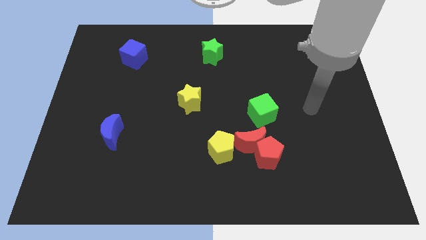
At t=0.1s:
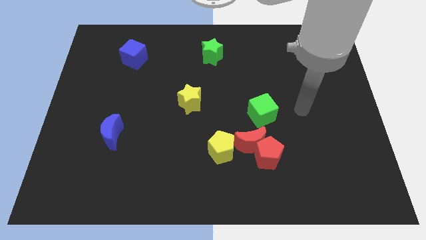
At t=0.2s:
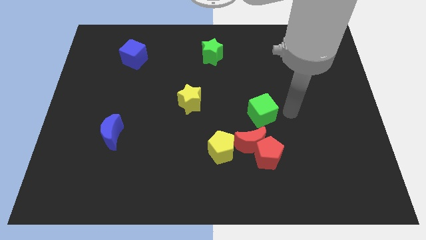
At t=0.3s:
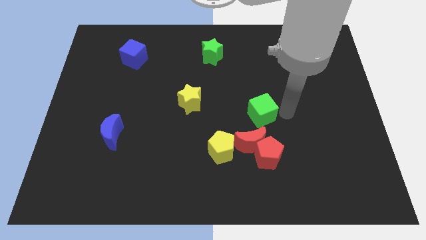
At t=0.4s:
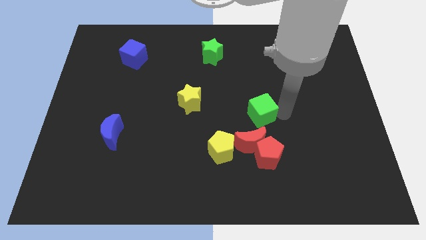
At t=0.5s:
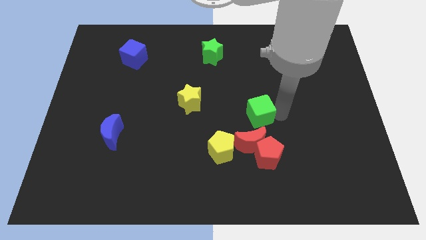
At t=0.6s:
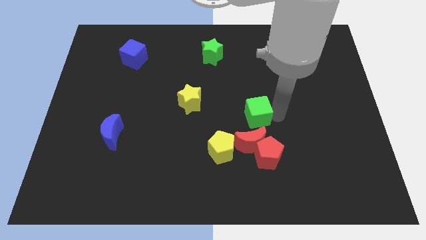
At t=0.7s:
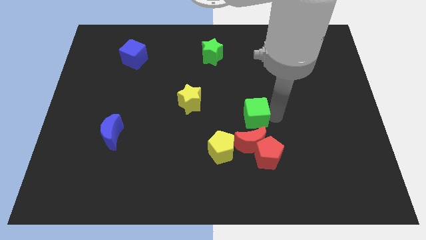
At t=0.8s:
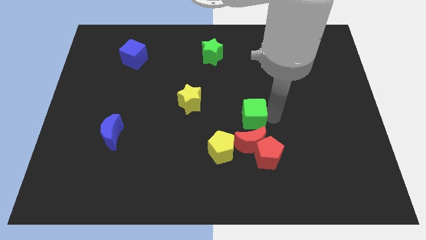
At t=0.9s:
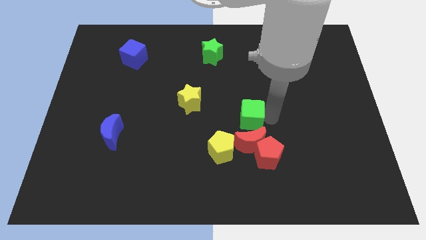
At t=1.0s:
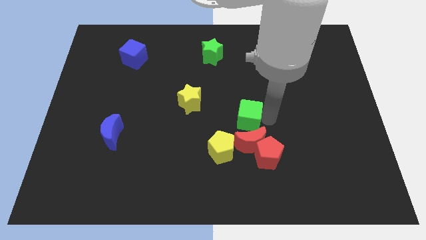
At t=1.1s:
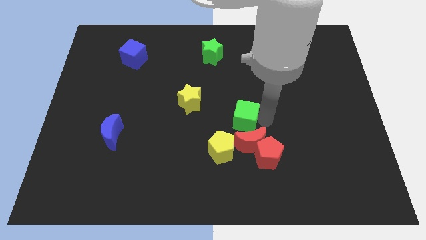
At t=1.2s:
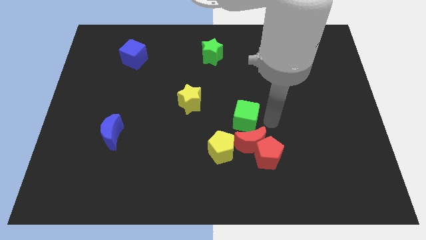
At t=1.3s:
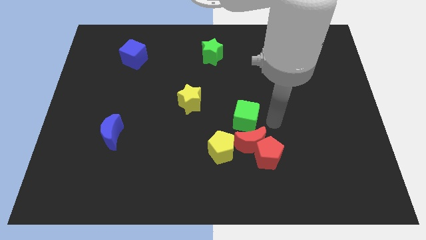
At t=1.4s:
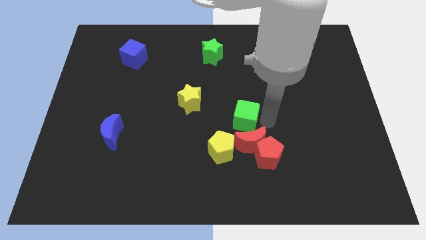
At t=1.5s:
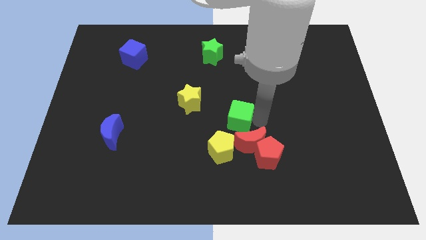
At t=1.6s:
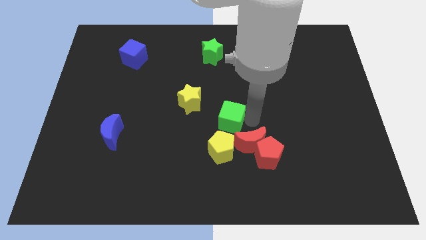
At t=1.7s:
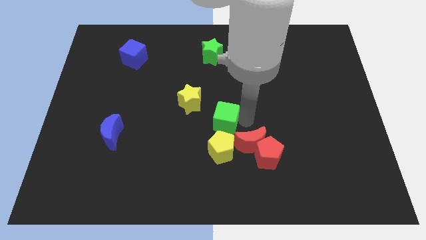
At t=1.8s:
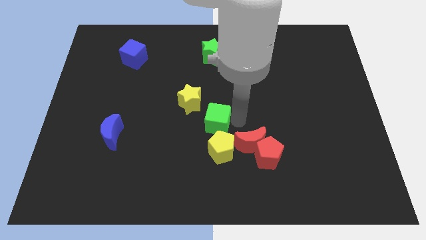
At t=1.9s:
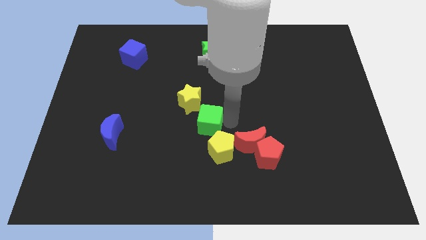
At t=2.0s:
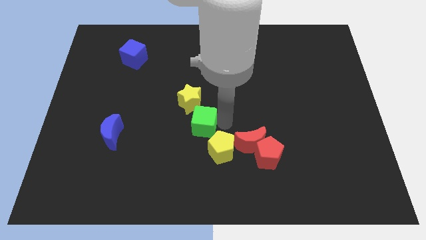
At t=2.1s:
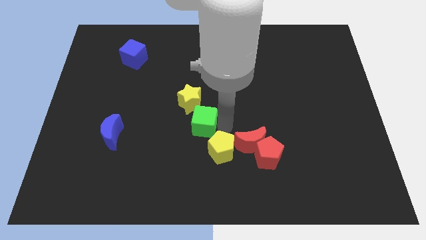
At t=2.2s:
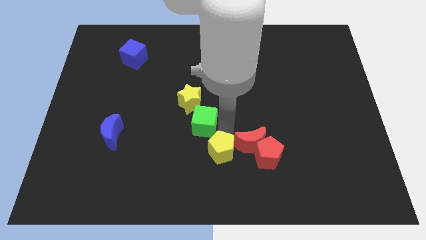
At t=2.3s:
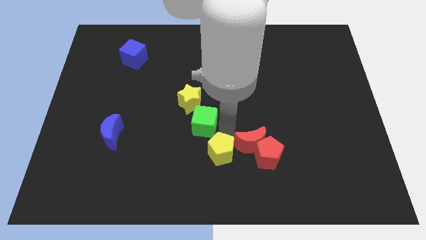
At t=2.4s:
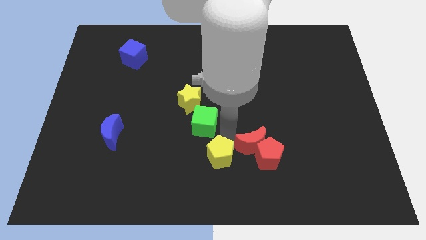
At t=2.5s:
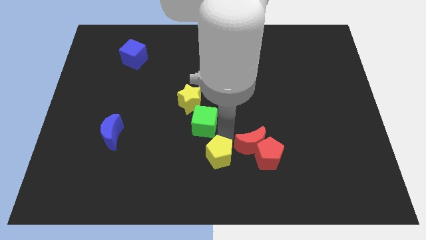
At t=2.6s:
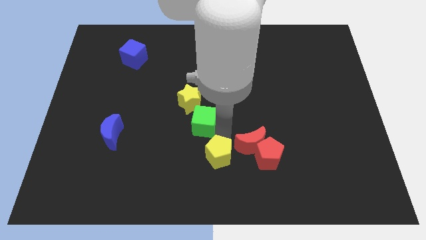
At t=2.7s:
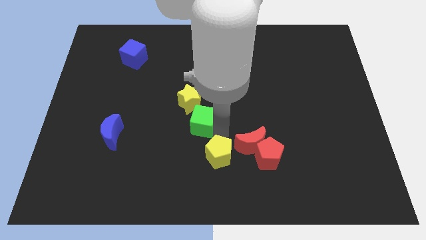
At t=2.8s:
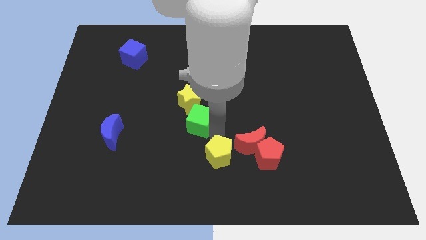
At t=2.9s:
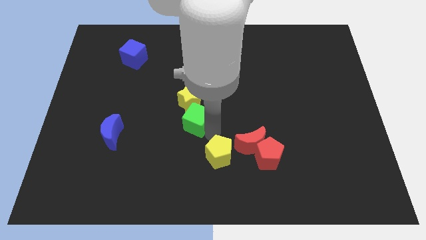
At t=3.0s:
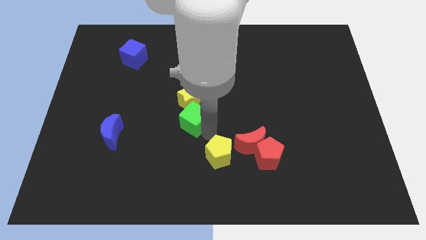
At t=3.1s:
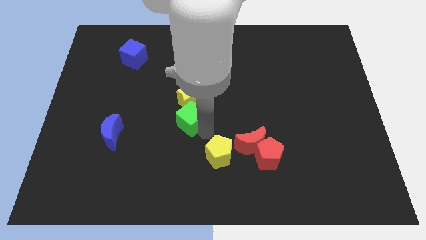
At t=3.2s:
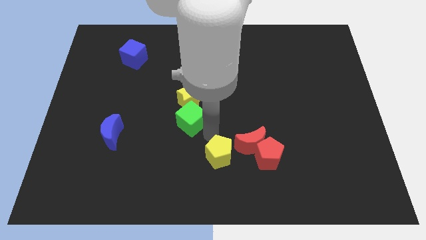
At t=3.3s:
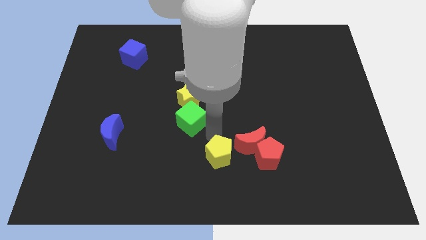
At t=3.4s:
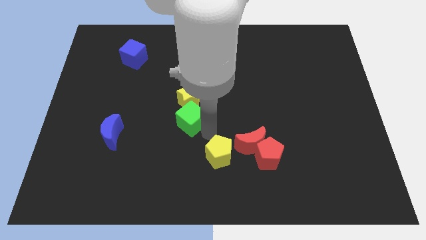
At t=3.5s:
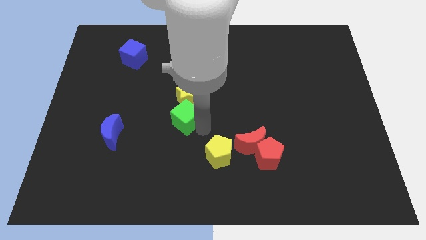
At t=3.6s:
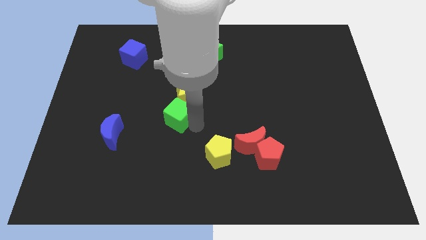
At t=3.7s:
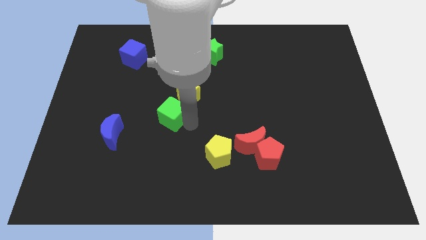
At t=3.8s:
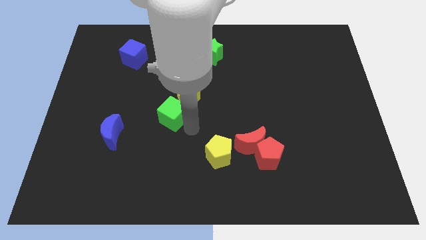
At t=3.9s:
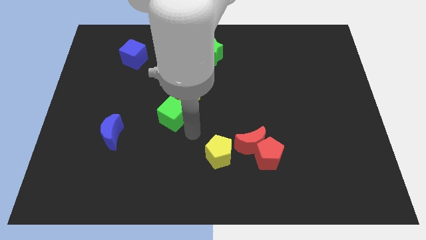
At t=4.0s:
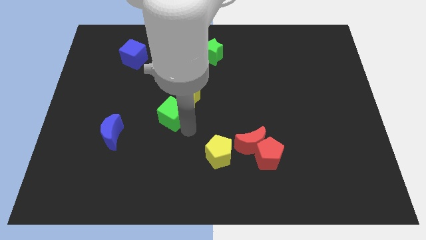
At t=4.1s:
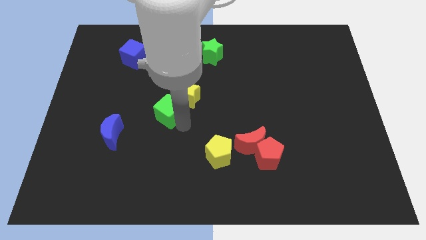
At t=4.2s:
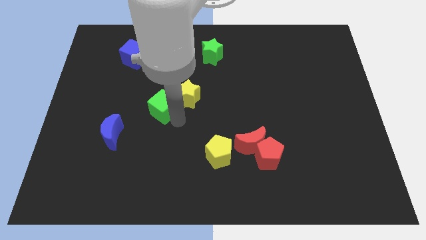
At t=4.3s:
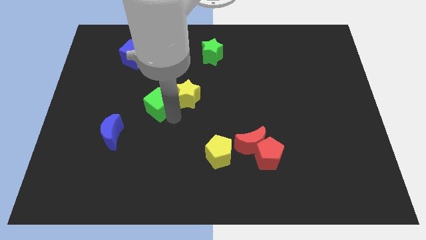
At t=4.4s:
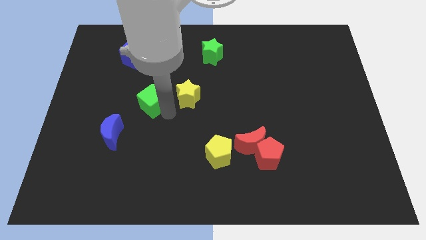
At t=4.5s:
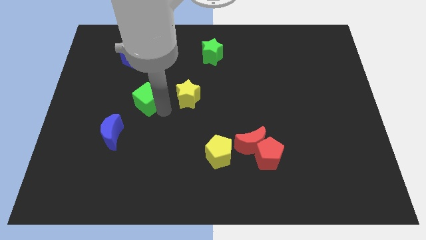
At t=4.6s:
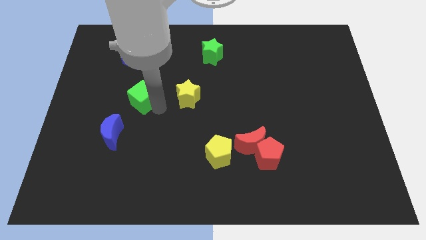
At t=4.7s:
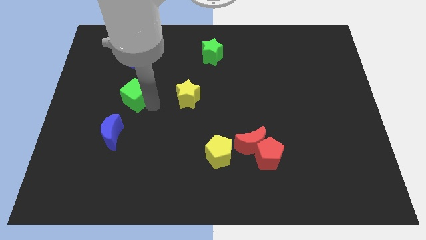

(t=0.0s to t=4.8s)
push the green cube below the blue cube

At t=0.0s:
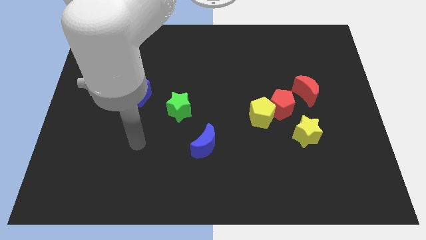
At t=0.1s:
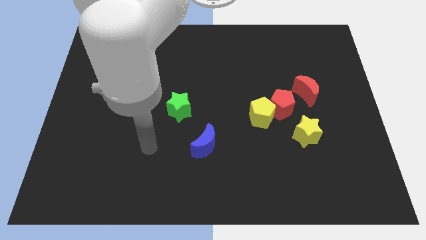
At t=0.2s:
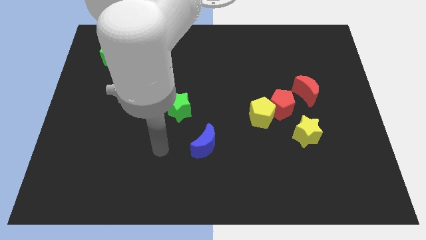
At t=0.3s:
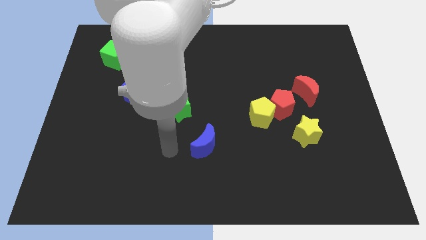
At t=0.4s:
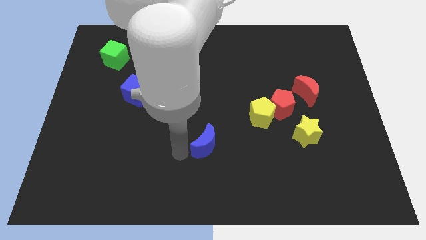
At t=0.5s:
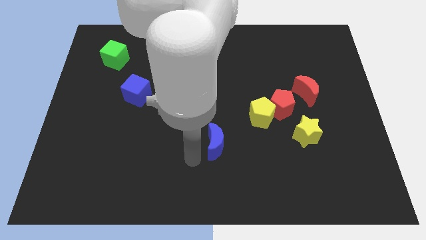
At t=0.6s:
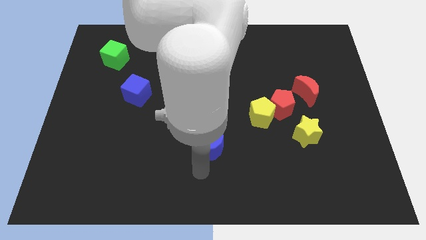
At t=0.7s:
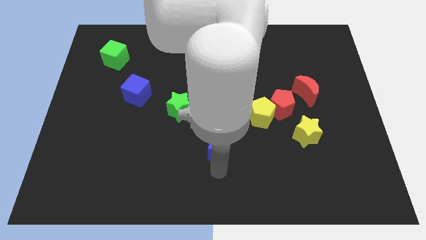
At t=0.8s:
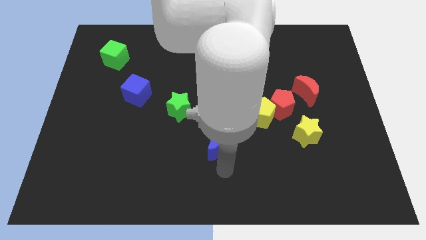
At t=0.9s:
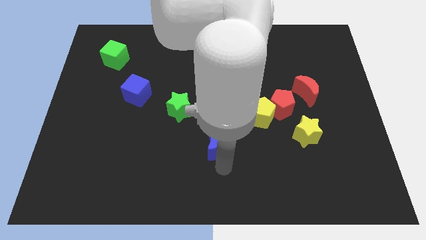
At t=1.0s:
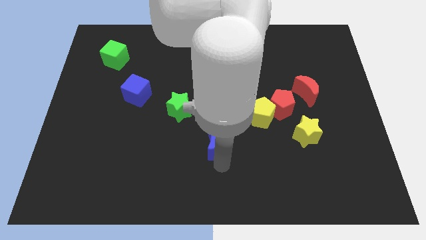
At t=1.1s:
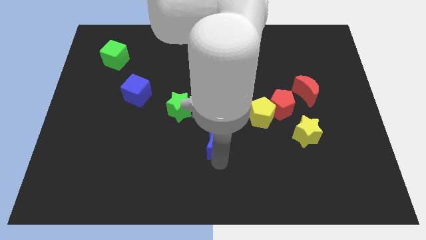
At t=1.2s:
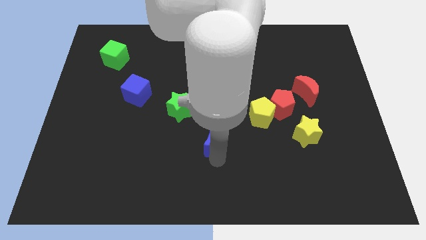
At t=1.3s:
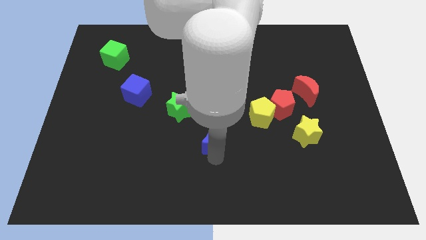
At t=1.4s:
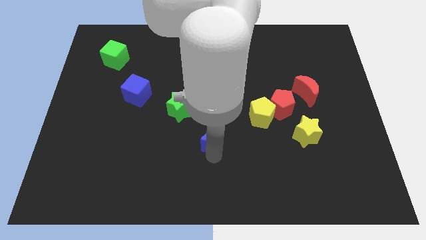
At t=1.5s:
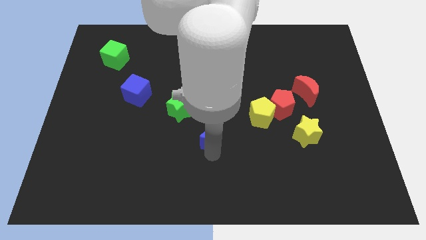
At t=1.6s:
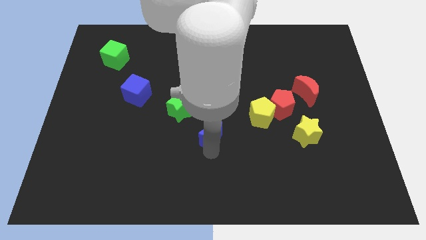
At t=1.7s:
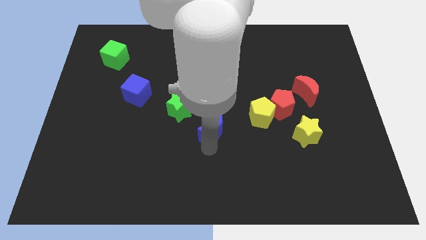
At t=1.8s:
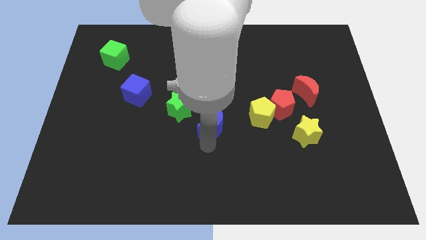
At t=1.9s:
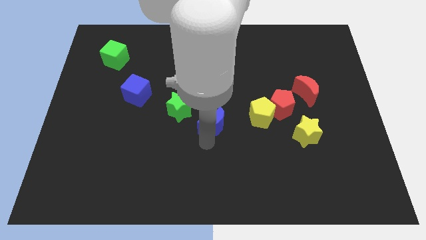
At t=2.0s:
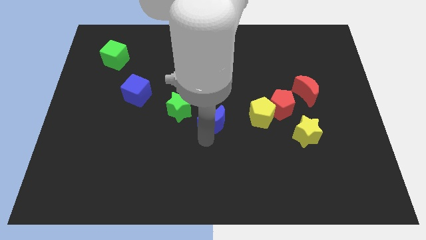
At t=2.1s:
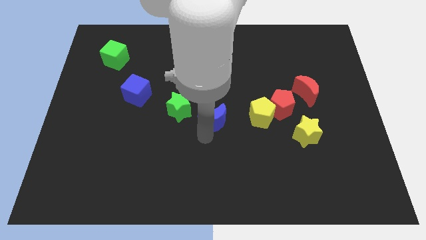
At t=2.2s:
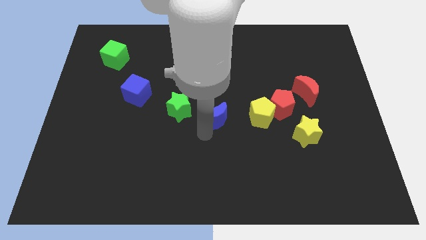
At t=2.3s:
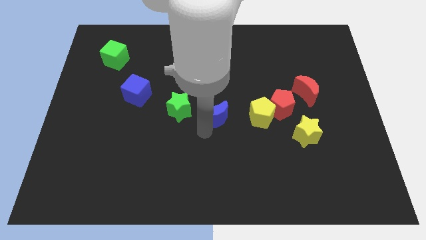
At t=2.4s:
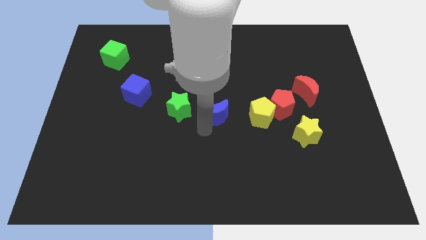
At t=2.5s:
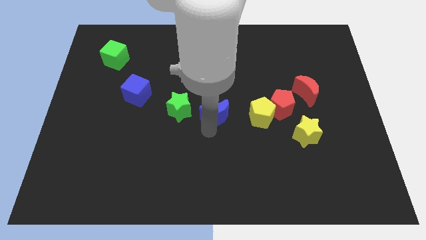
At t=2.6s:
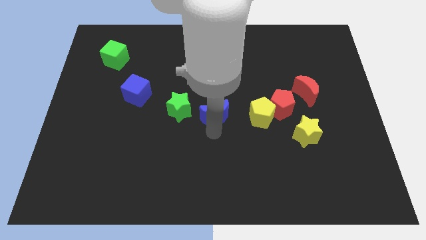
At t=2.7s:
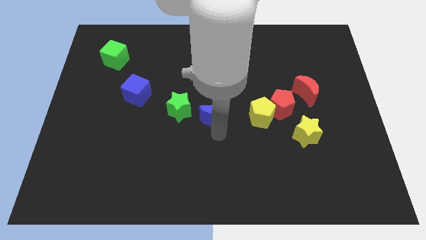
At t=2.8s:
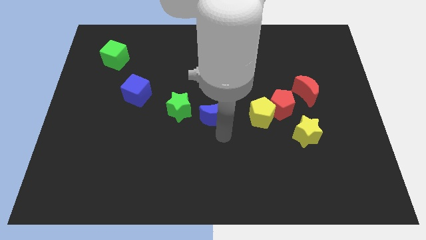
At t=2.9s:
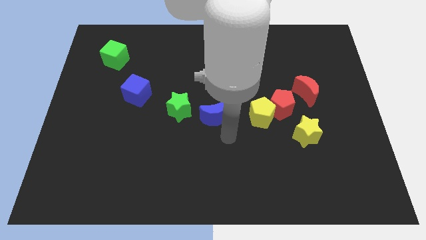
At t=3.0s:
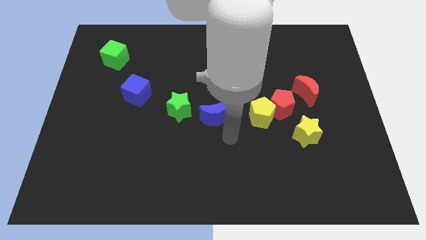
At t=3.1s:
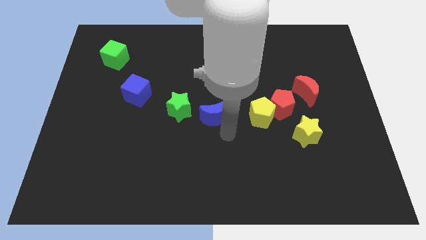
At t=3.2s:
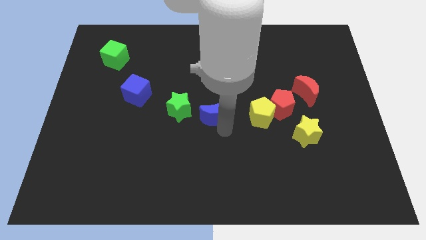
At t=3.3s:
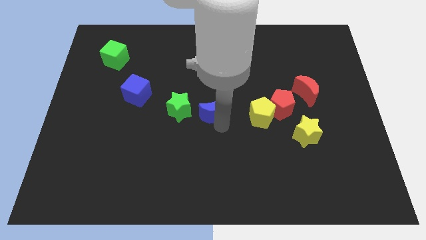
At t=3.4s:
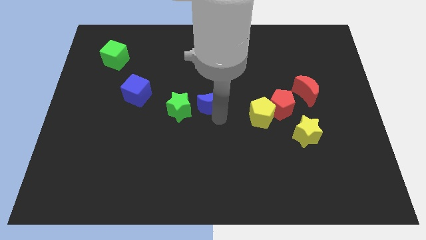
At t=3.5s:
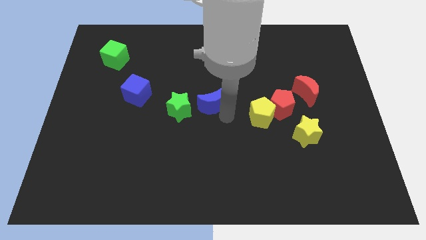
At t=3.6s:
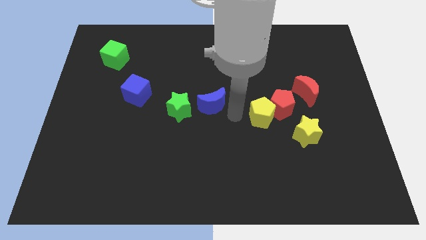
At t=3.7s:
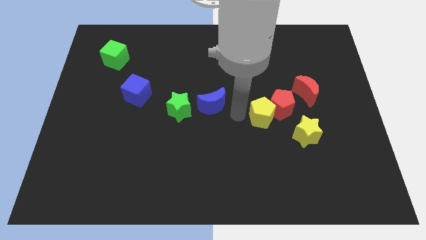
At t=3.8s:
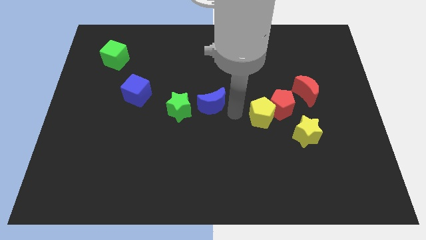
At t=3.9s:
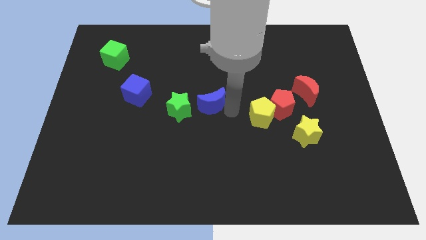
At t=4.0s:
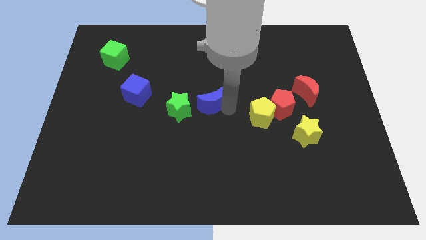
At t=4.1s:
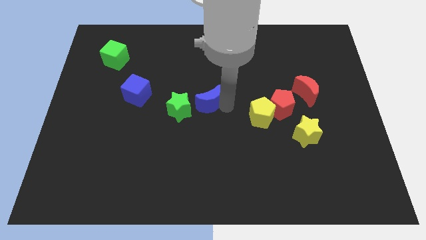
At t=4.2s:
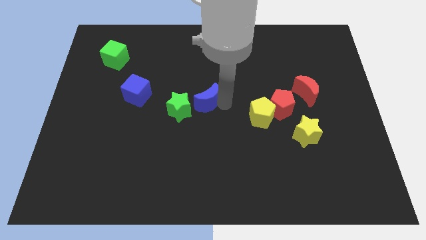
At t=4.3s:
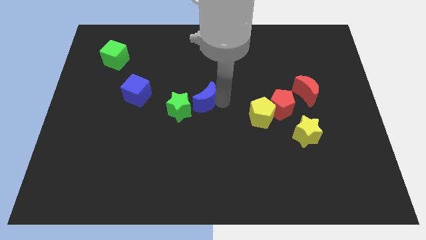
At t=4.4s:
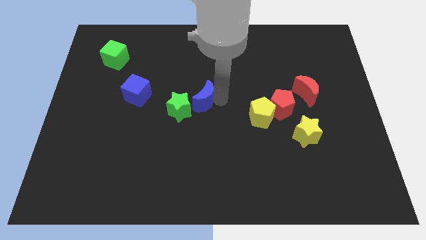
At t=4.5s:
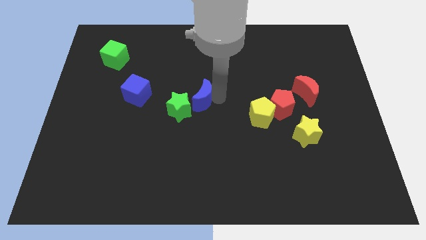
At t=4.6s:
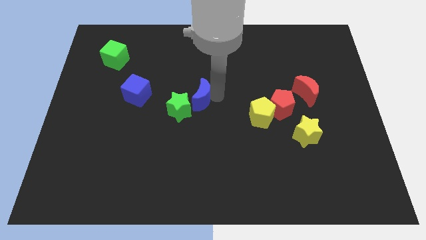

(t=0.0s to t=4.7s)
push the blue moon just right of the blue cube
